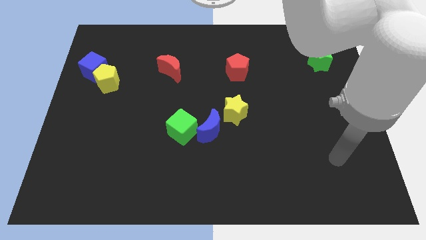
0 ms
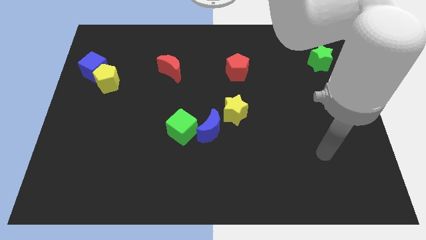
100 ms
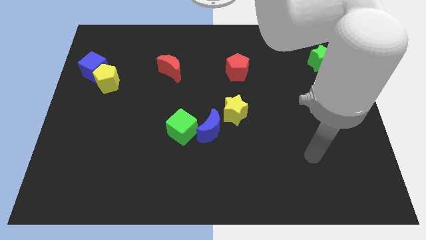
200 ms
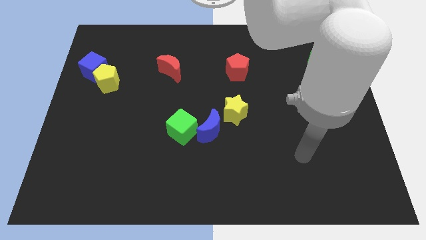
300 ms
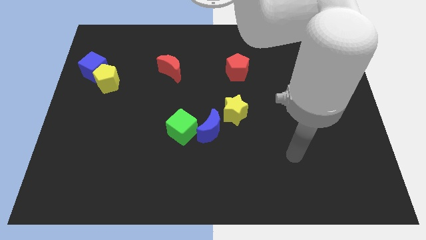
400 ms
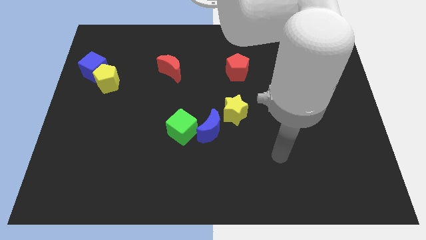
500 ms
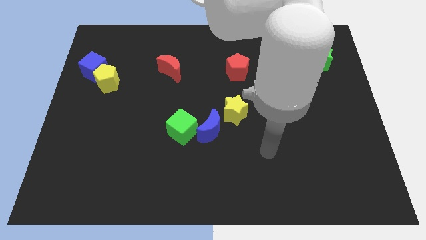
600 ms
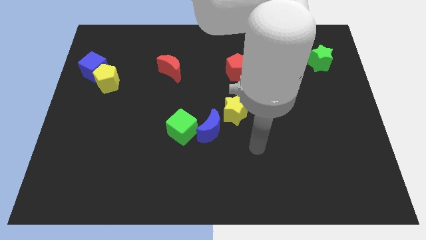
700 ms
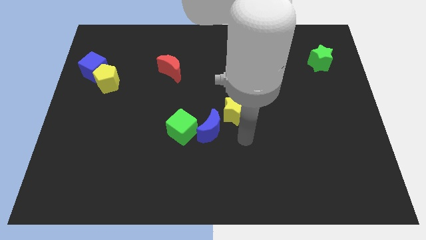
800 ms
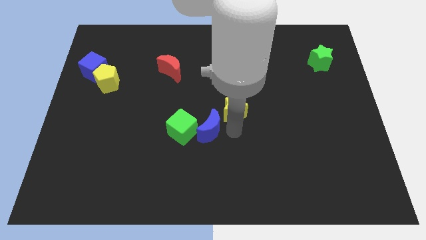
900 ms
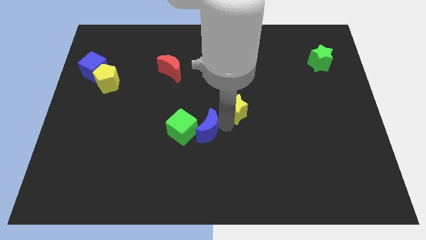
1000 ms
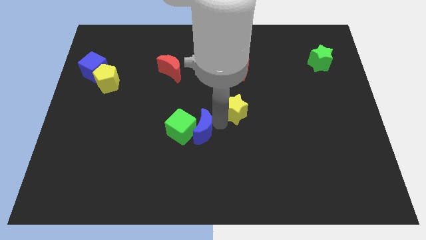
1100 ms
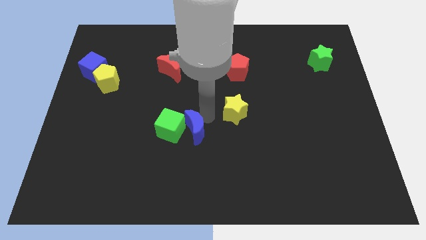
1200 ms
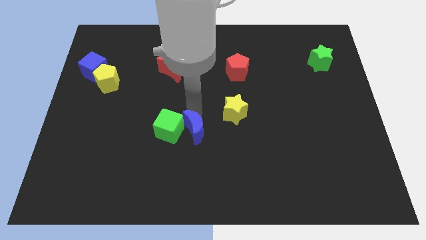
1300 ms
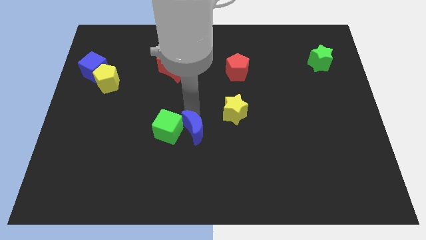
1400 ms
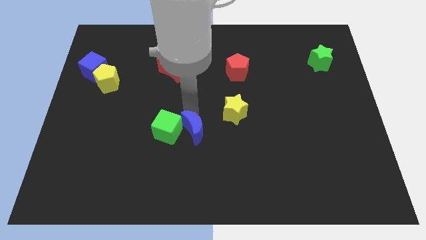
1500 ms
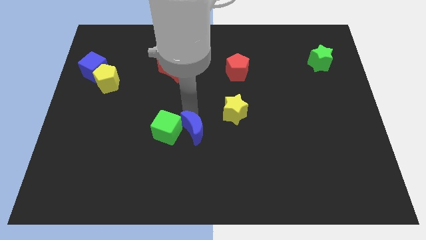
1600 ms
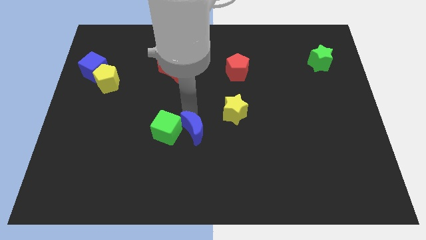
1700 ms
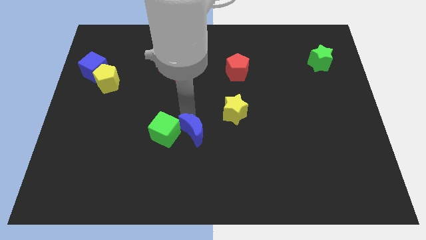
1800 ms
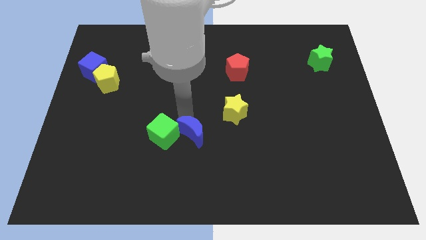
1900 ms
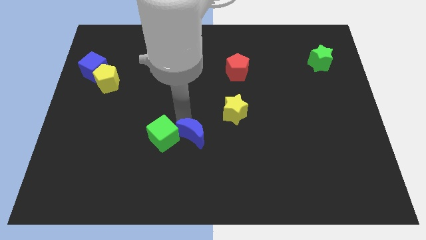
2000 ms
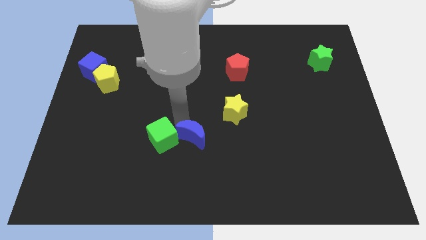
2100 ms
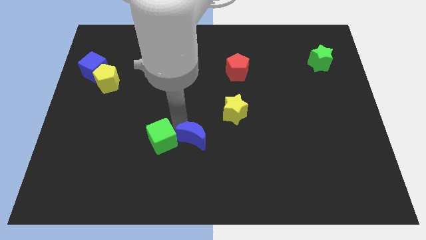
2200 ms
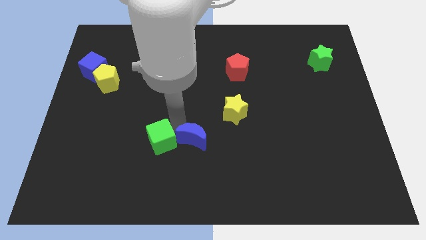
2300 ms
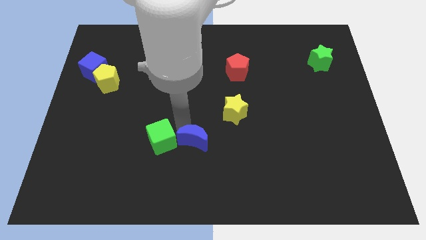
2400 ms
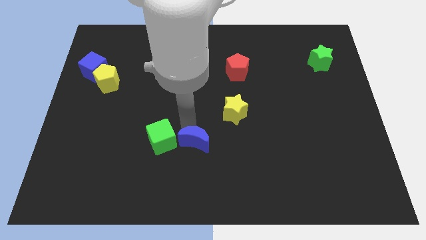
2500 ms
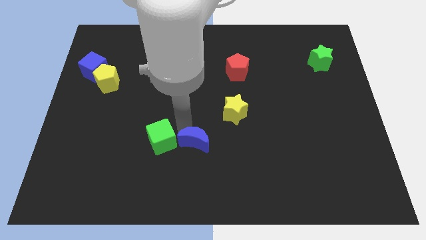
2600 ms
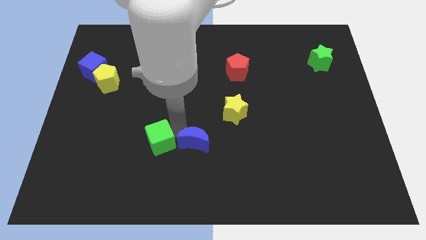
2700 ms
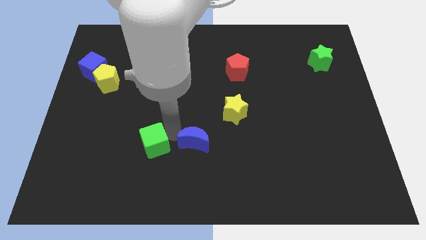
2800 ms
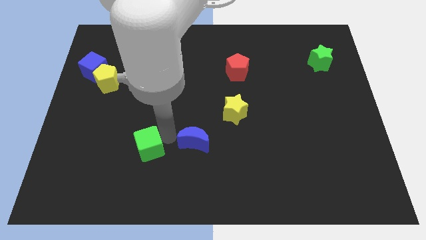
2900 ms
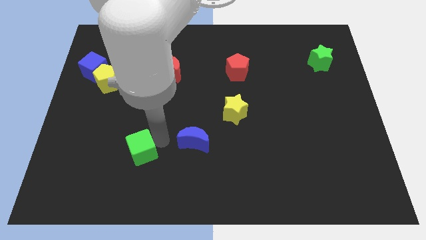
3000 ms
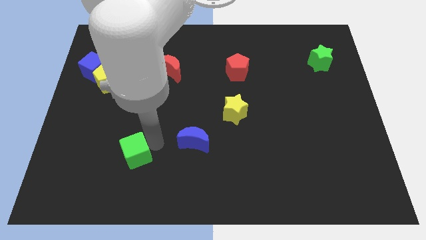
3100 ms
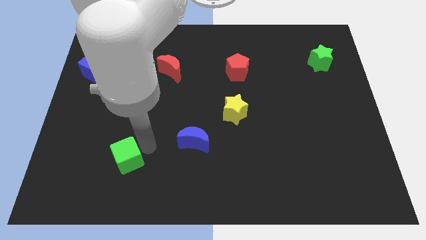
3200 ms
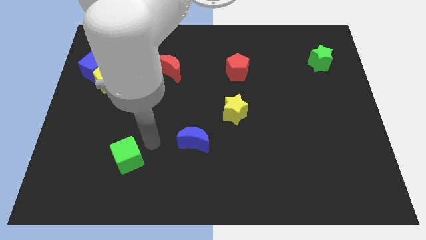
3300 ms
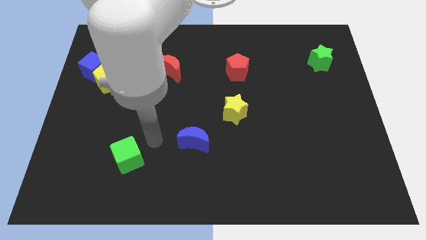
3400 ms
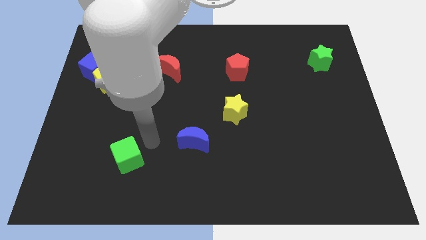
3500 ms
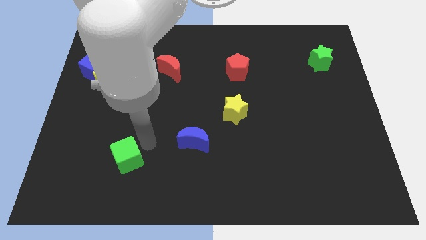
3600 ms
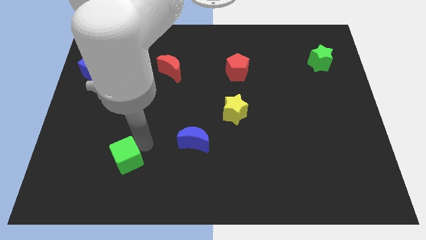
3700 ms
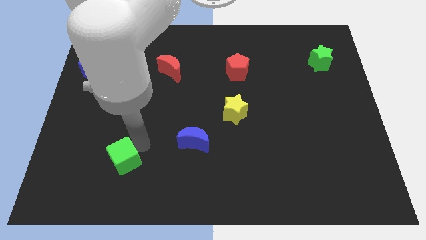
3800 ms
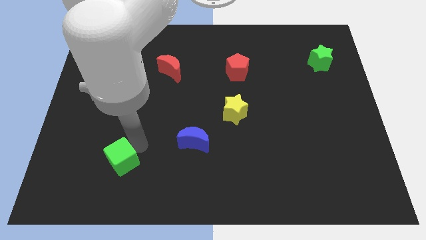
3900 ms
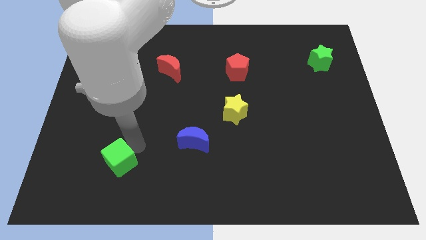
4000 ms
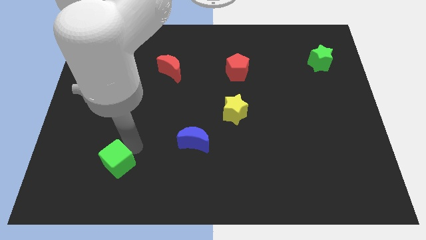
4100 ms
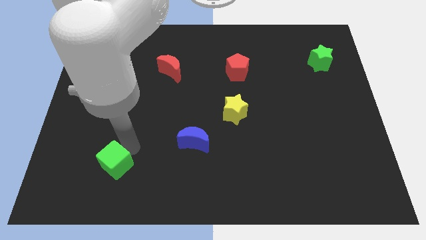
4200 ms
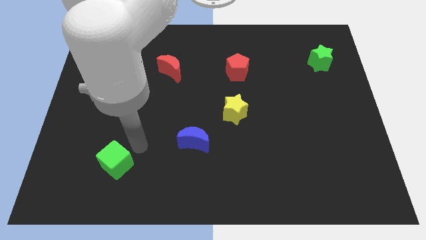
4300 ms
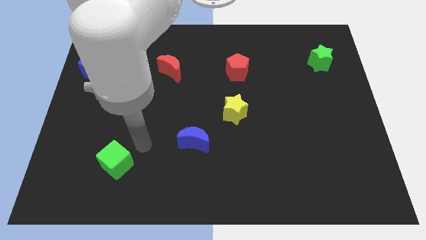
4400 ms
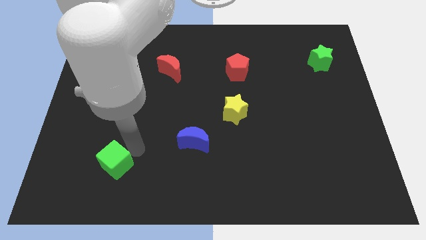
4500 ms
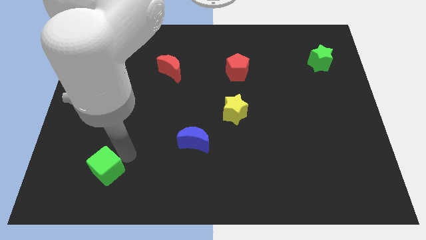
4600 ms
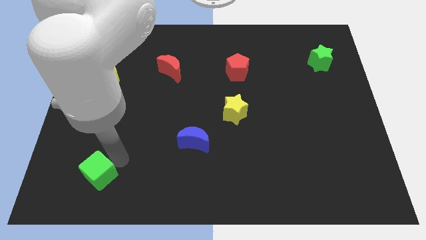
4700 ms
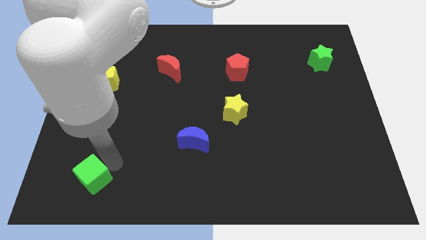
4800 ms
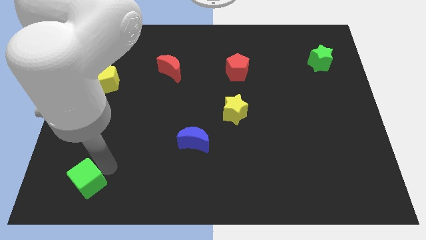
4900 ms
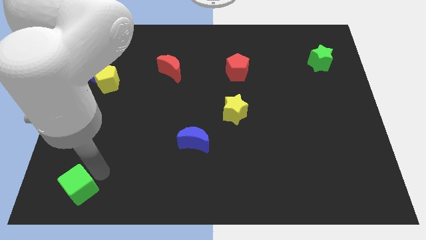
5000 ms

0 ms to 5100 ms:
push the green cube to the bottom left
